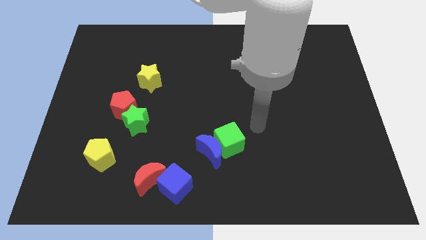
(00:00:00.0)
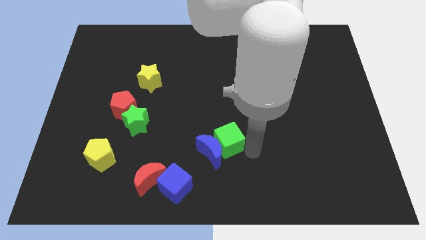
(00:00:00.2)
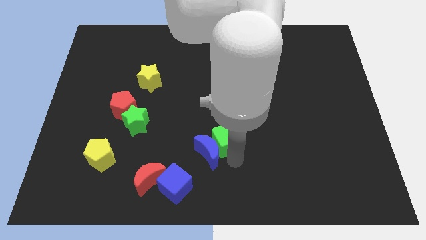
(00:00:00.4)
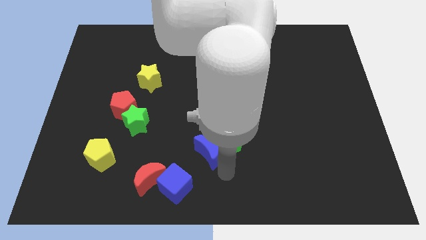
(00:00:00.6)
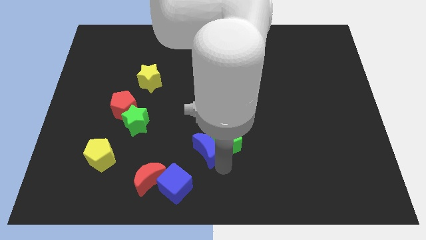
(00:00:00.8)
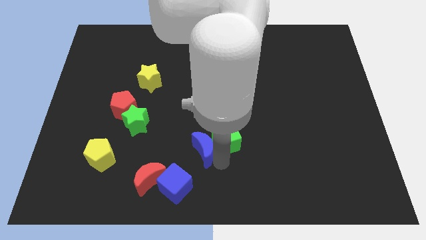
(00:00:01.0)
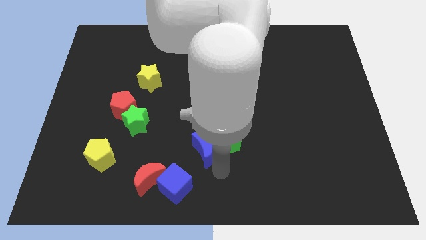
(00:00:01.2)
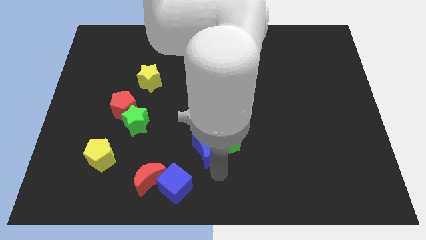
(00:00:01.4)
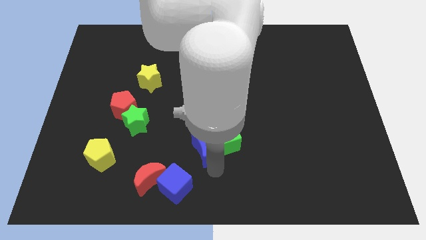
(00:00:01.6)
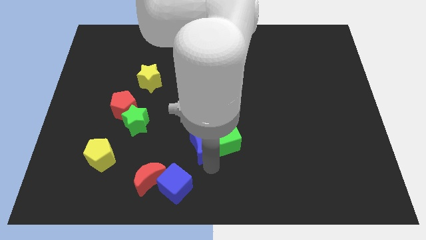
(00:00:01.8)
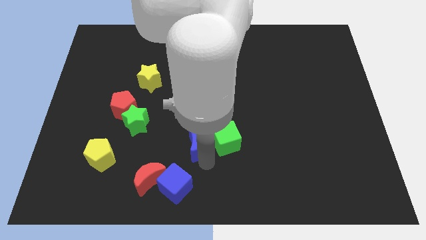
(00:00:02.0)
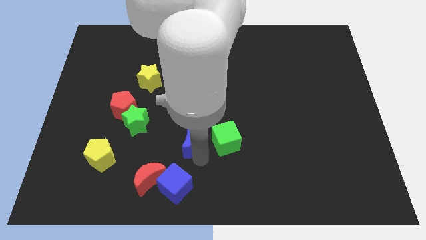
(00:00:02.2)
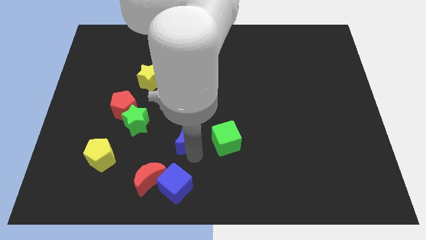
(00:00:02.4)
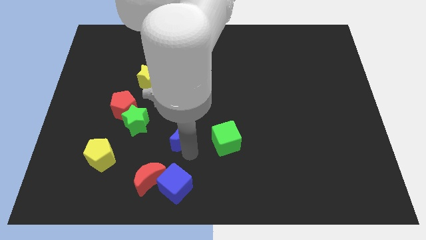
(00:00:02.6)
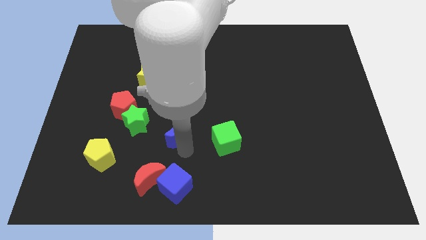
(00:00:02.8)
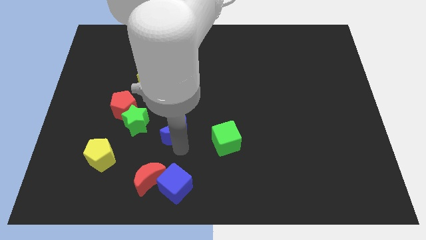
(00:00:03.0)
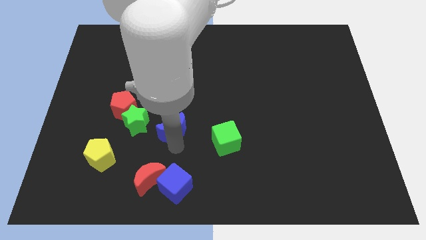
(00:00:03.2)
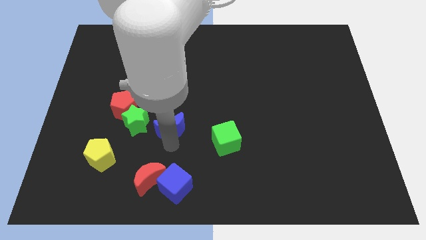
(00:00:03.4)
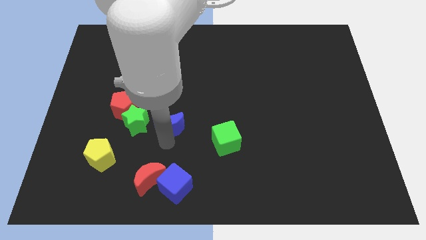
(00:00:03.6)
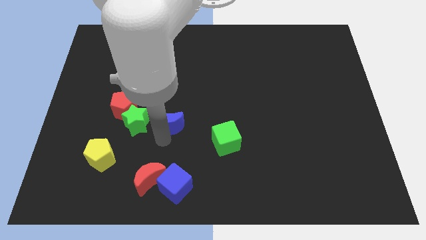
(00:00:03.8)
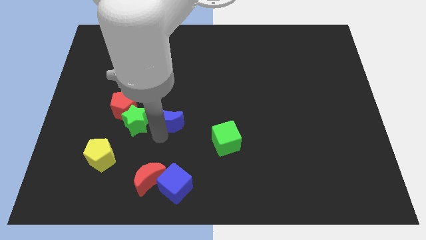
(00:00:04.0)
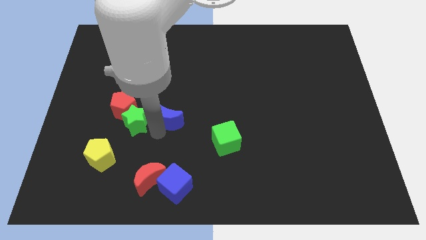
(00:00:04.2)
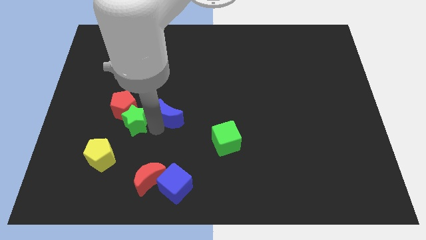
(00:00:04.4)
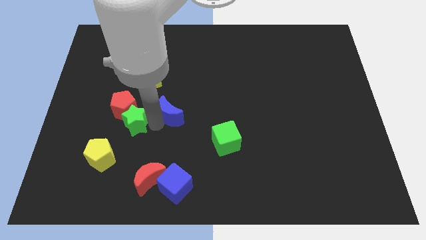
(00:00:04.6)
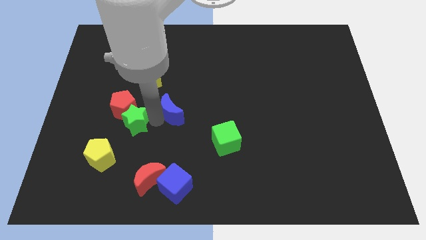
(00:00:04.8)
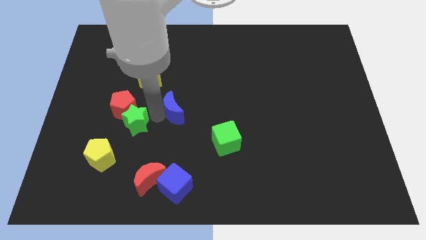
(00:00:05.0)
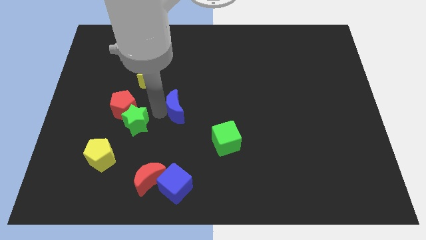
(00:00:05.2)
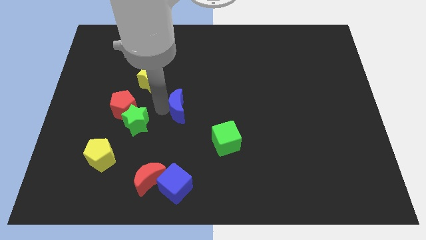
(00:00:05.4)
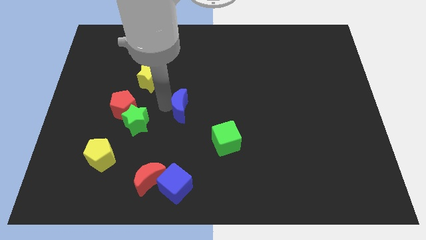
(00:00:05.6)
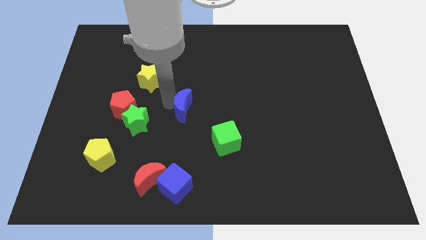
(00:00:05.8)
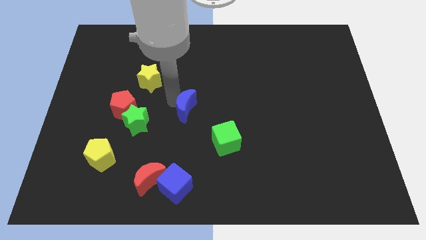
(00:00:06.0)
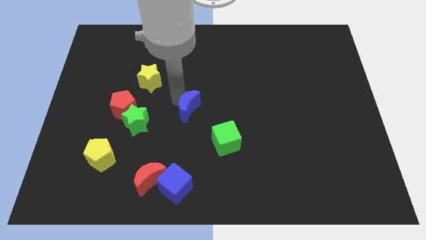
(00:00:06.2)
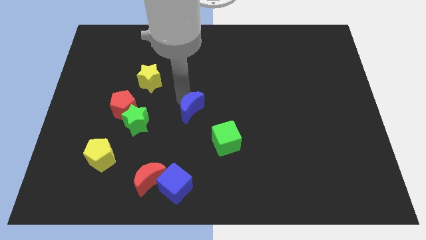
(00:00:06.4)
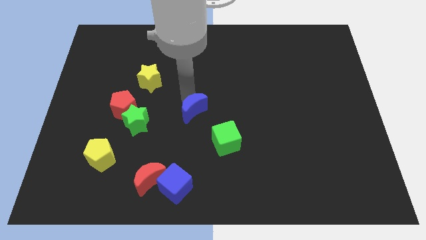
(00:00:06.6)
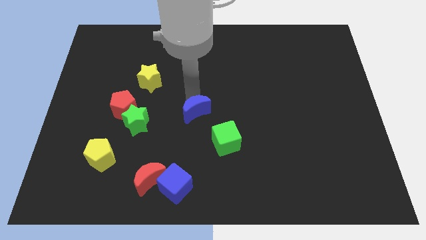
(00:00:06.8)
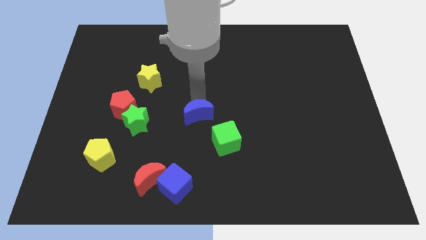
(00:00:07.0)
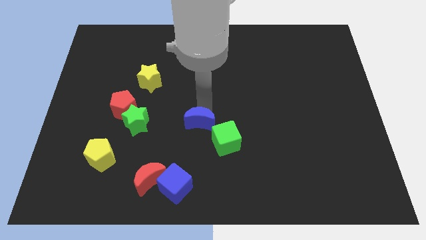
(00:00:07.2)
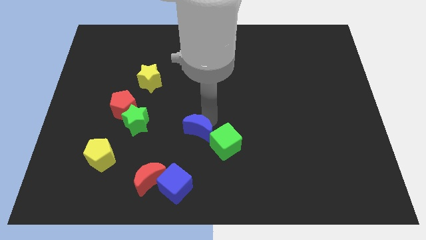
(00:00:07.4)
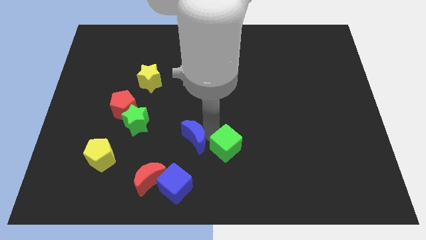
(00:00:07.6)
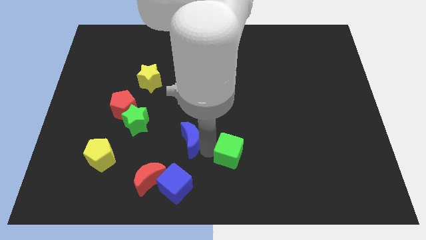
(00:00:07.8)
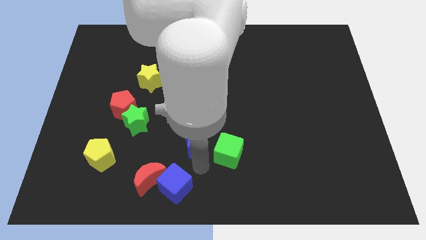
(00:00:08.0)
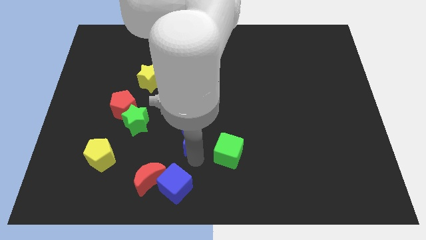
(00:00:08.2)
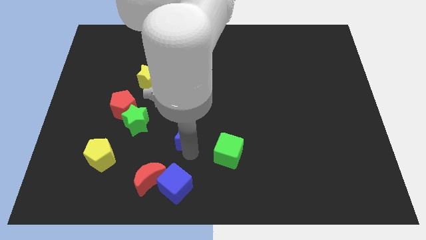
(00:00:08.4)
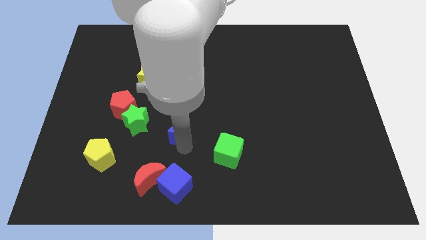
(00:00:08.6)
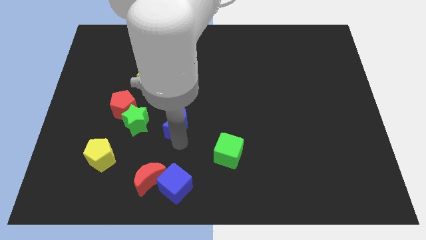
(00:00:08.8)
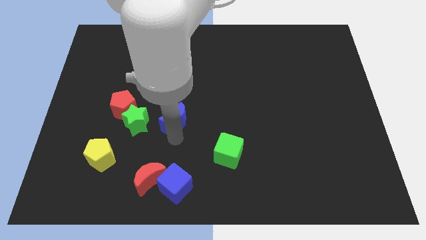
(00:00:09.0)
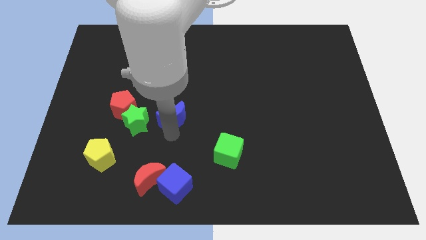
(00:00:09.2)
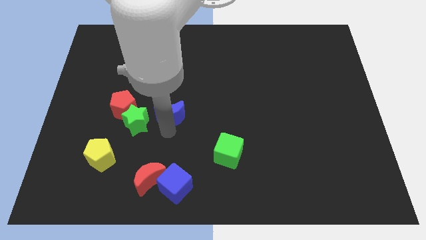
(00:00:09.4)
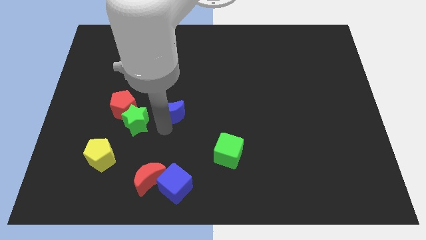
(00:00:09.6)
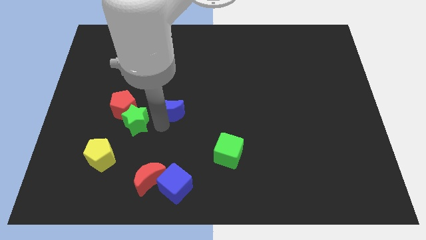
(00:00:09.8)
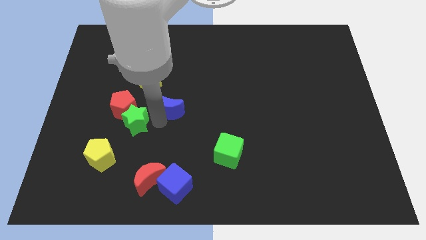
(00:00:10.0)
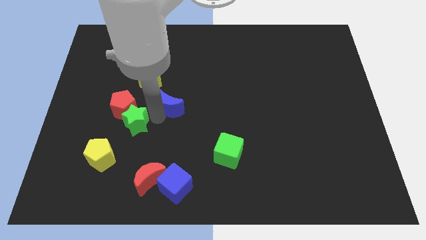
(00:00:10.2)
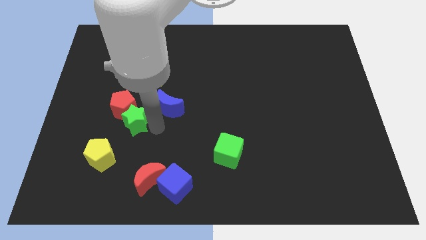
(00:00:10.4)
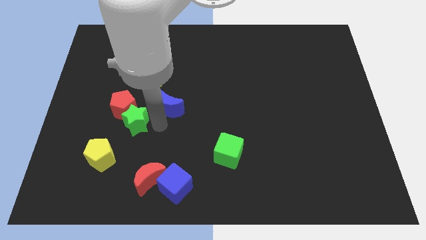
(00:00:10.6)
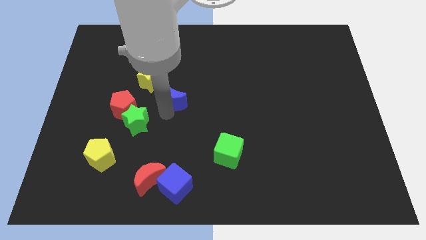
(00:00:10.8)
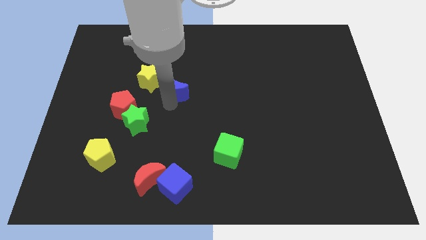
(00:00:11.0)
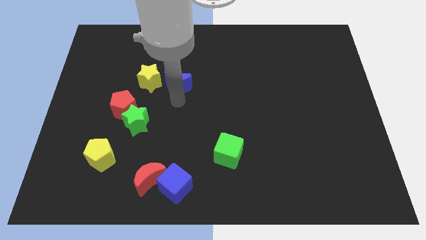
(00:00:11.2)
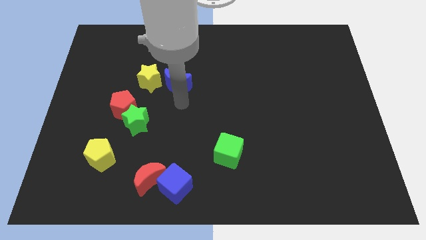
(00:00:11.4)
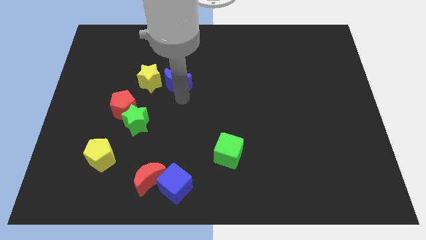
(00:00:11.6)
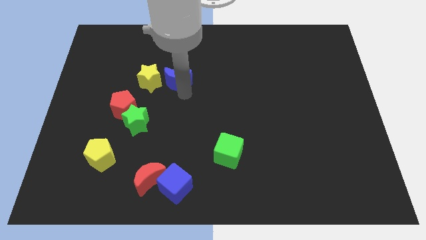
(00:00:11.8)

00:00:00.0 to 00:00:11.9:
push the blue moon to the top right side of the yellow star

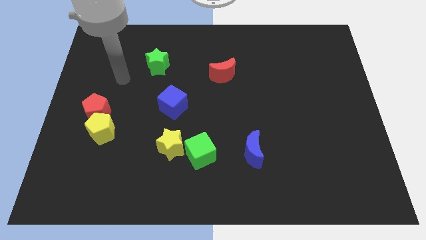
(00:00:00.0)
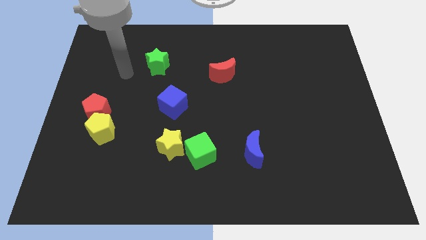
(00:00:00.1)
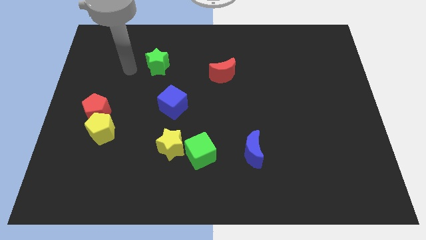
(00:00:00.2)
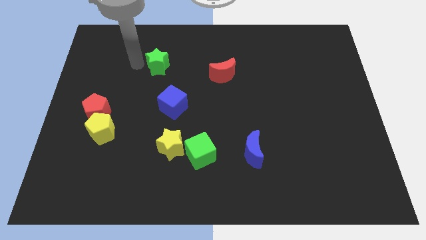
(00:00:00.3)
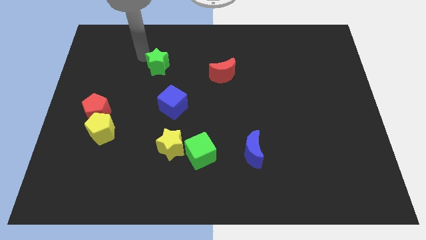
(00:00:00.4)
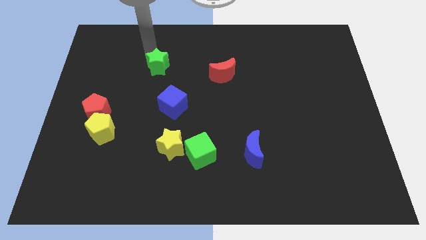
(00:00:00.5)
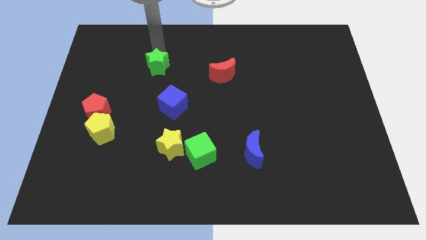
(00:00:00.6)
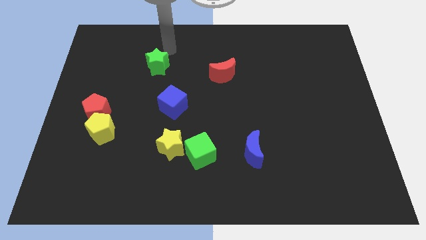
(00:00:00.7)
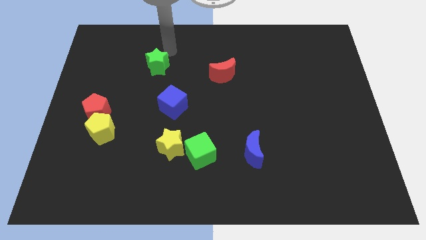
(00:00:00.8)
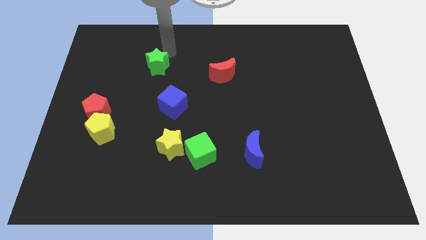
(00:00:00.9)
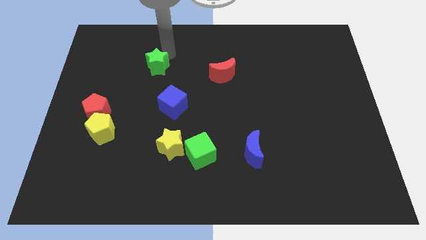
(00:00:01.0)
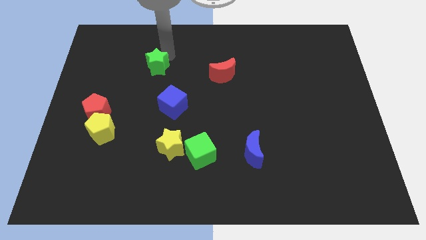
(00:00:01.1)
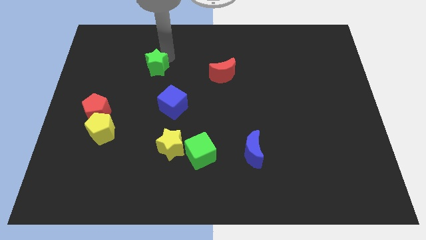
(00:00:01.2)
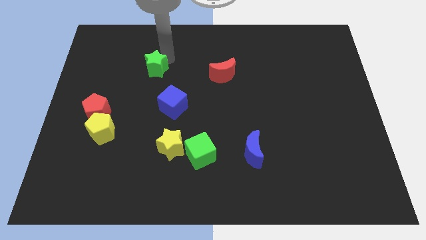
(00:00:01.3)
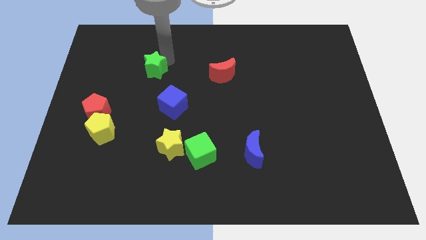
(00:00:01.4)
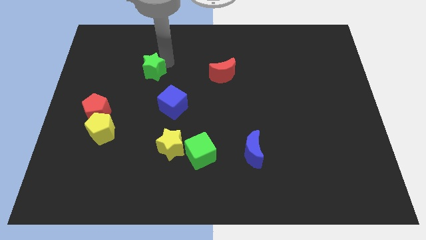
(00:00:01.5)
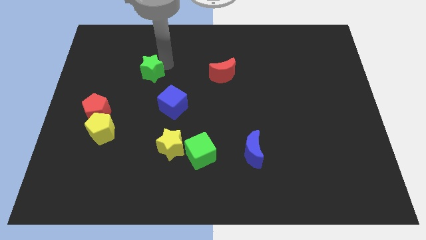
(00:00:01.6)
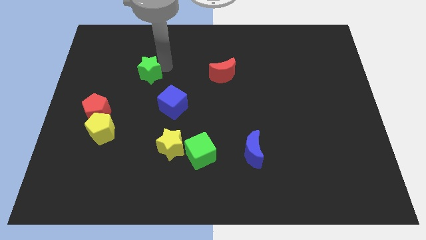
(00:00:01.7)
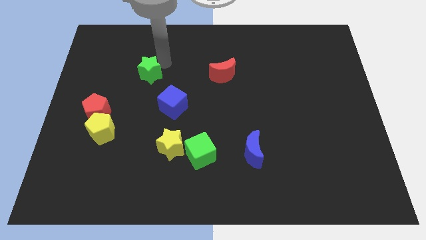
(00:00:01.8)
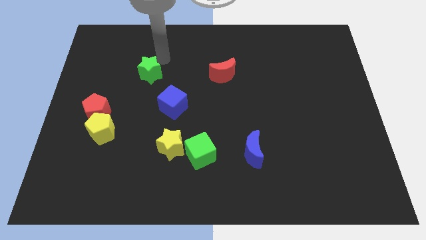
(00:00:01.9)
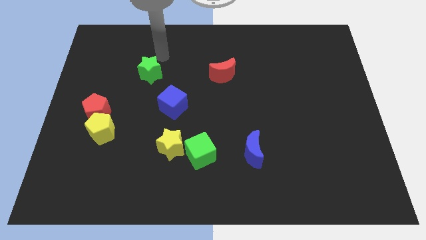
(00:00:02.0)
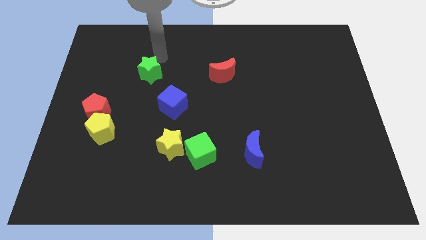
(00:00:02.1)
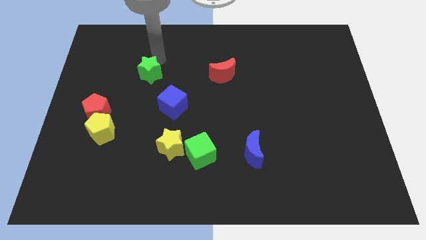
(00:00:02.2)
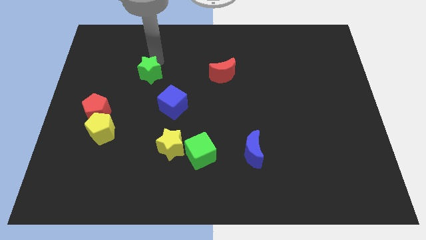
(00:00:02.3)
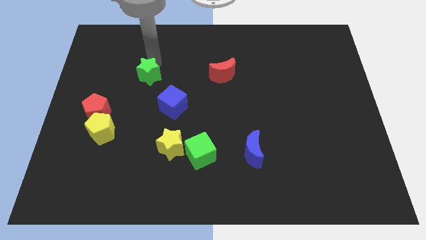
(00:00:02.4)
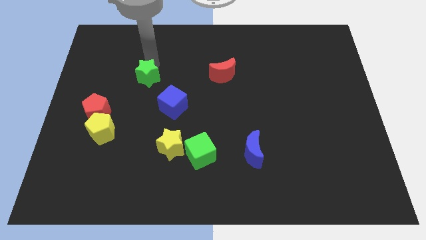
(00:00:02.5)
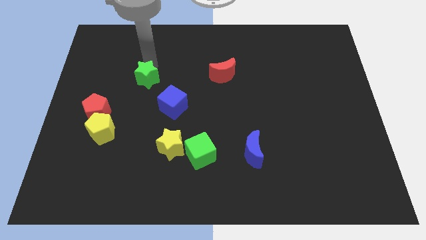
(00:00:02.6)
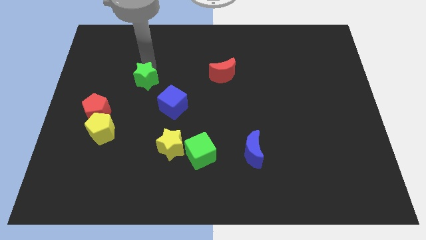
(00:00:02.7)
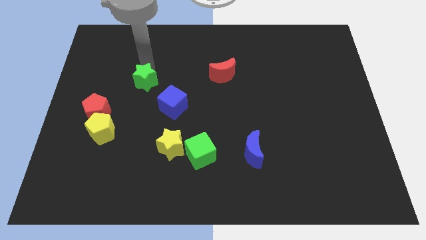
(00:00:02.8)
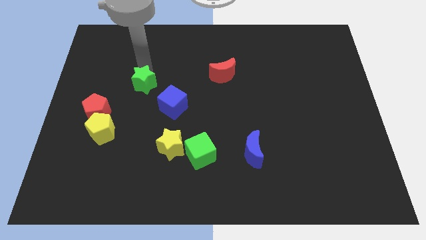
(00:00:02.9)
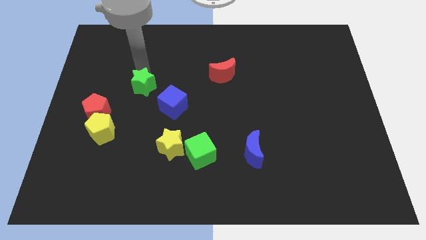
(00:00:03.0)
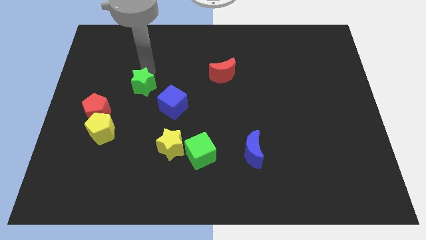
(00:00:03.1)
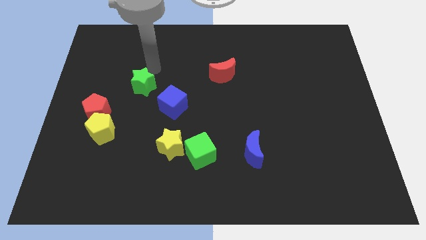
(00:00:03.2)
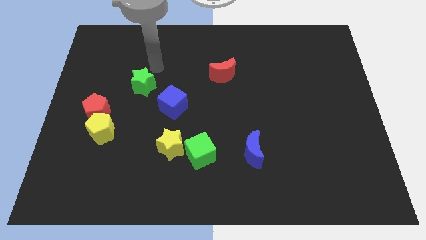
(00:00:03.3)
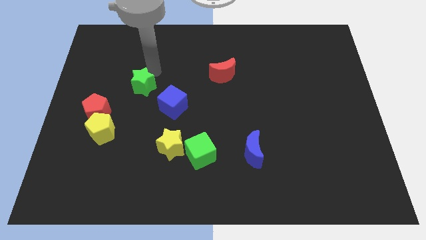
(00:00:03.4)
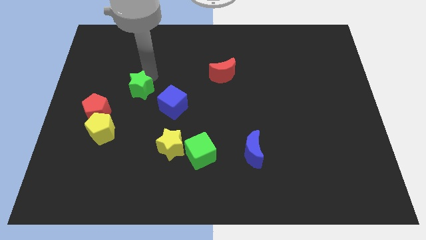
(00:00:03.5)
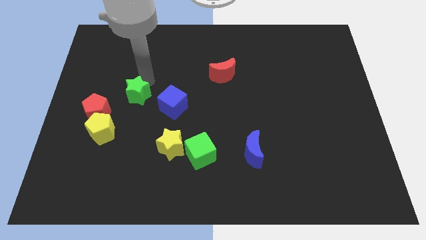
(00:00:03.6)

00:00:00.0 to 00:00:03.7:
slide the green star to the left side of the blue cube
